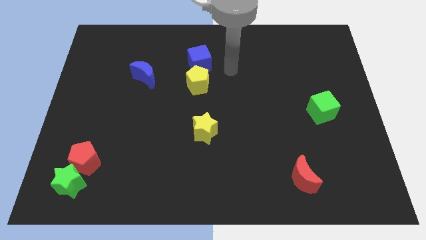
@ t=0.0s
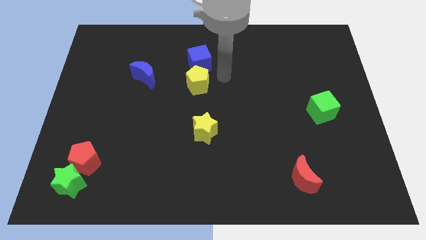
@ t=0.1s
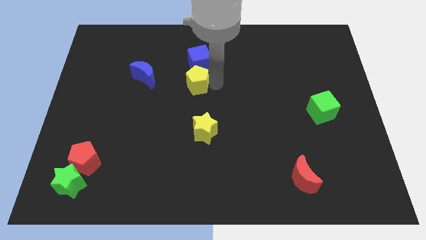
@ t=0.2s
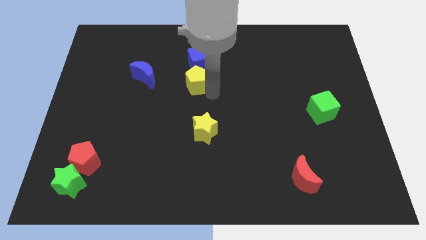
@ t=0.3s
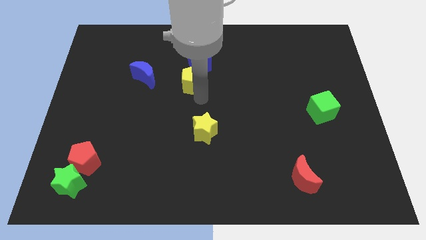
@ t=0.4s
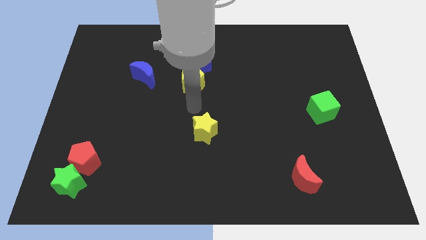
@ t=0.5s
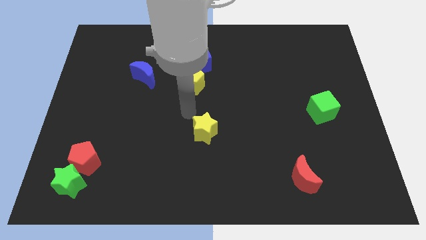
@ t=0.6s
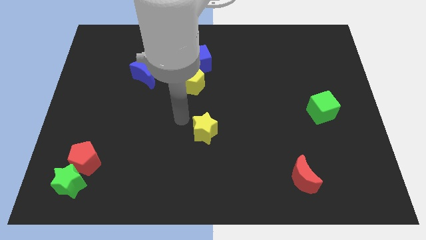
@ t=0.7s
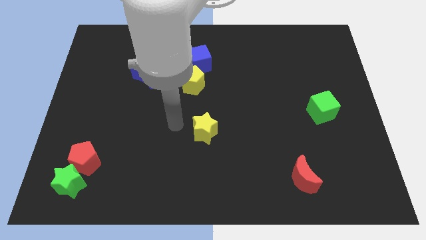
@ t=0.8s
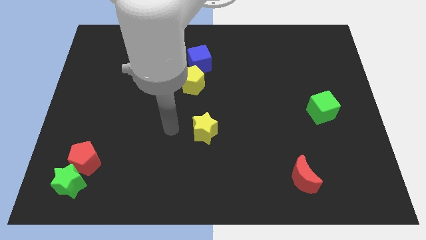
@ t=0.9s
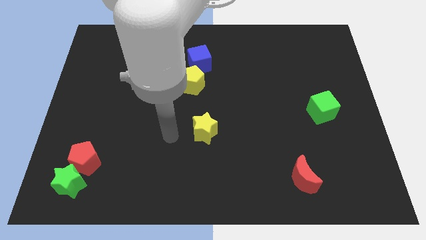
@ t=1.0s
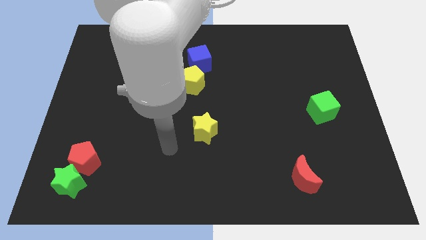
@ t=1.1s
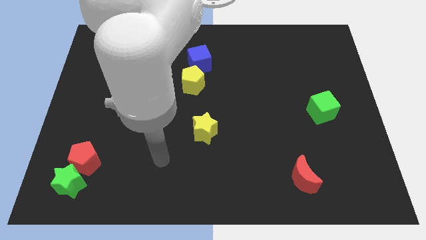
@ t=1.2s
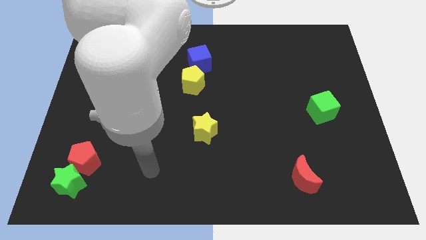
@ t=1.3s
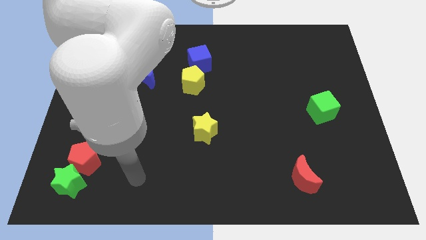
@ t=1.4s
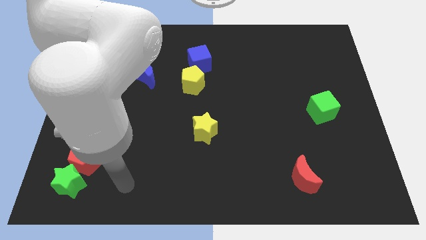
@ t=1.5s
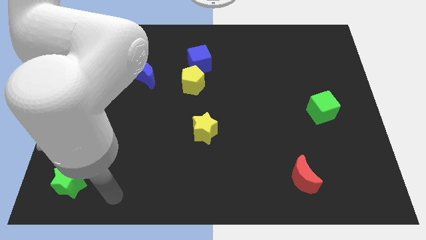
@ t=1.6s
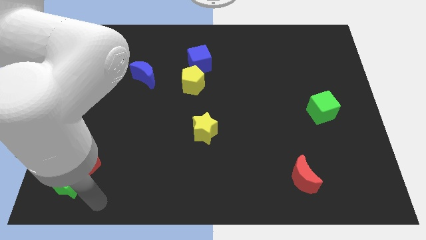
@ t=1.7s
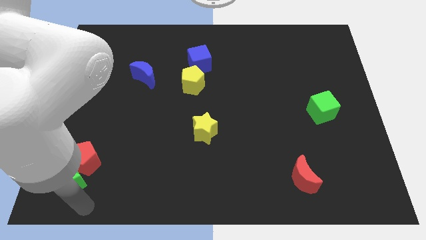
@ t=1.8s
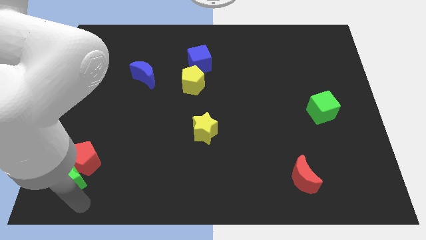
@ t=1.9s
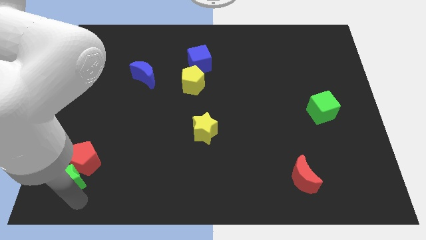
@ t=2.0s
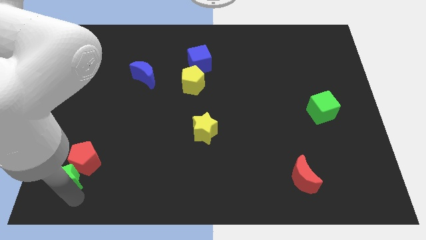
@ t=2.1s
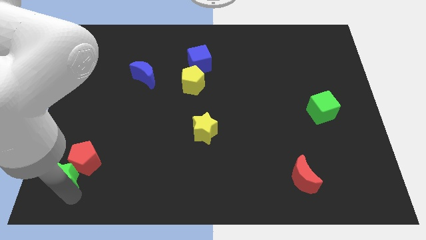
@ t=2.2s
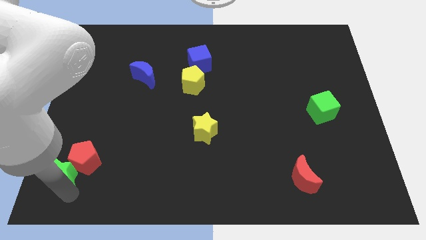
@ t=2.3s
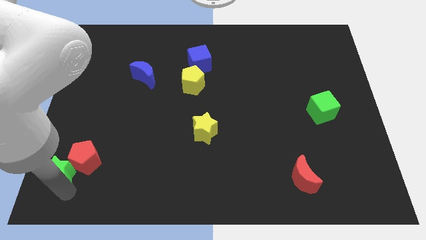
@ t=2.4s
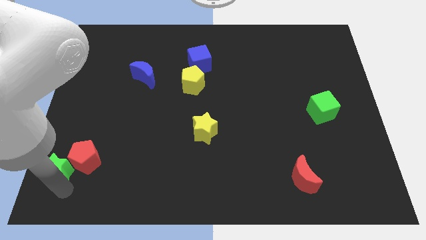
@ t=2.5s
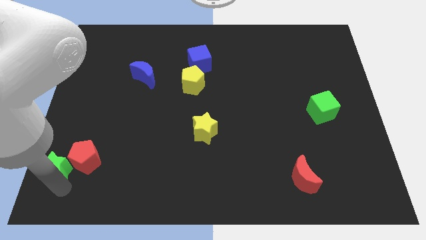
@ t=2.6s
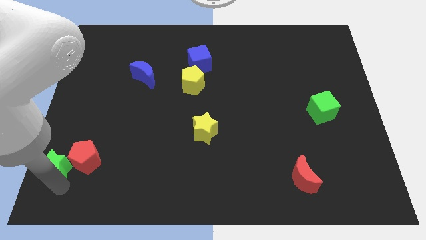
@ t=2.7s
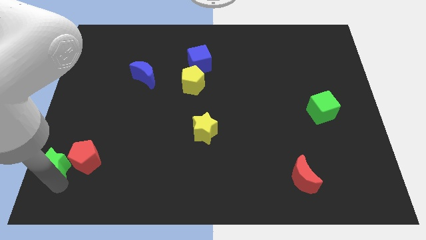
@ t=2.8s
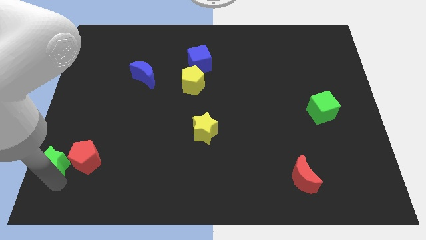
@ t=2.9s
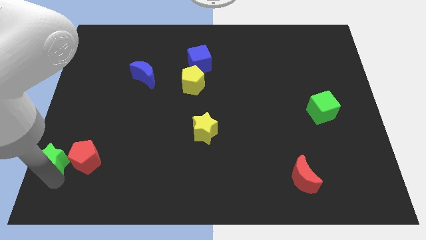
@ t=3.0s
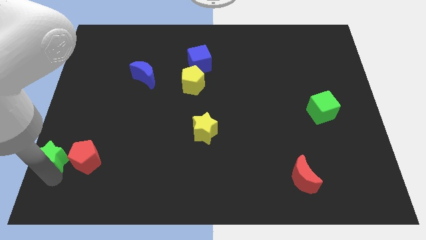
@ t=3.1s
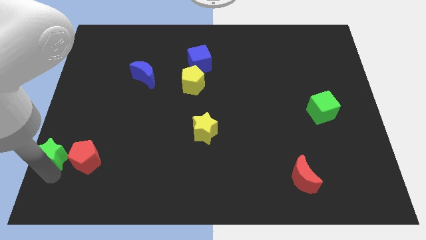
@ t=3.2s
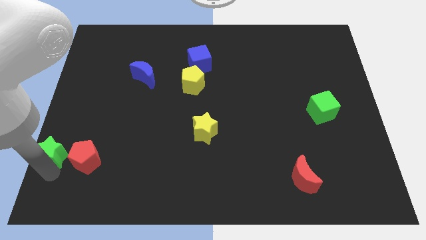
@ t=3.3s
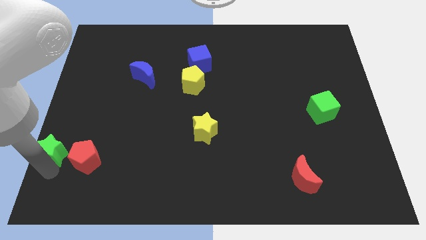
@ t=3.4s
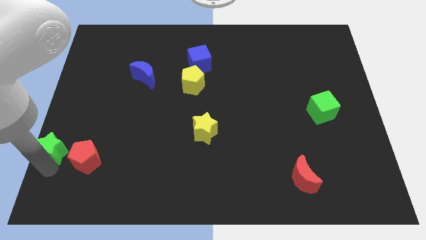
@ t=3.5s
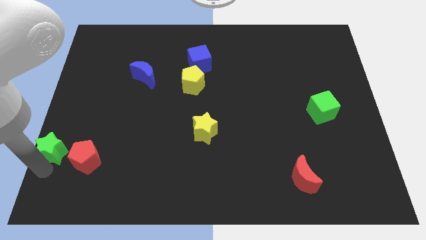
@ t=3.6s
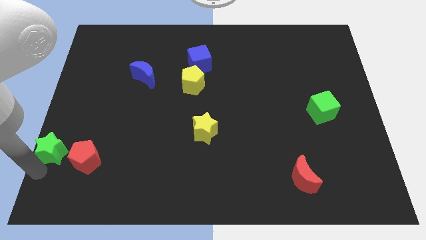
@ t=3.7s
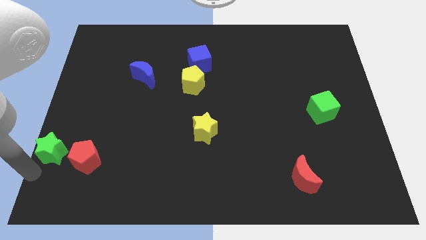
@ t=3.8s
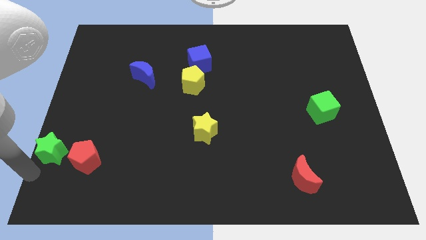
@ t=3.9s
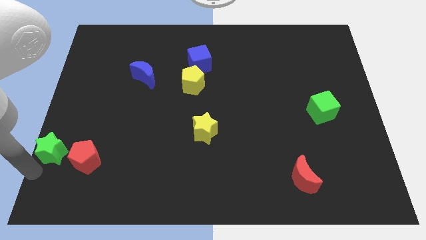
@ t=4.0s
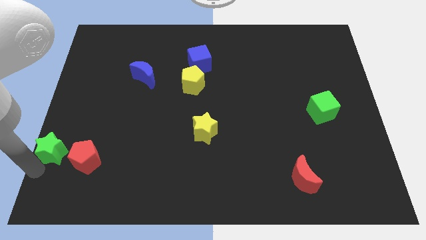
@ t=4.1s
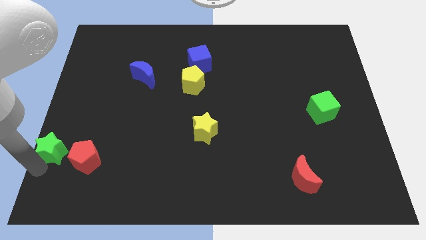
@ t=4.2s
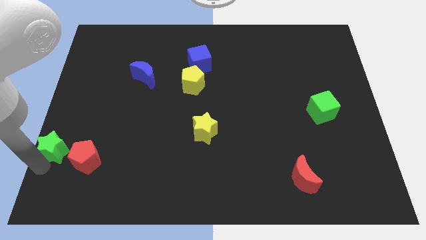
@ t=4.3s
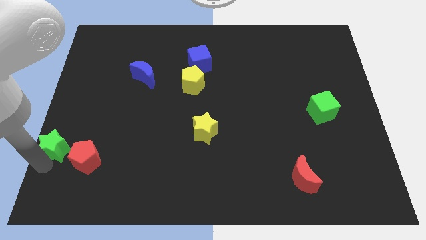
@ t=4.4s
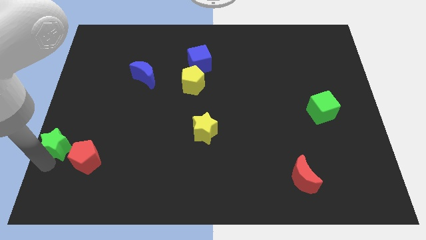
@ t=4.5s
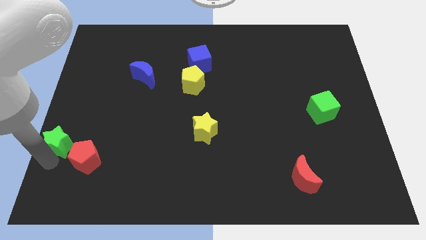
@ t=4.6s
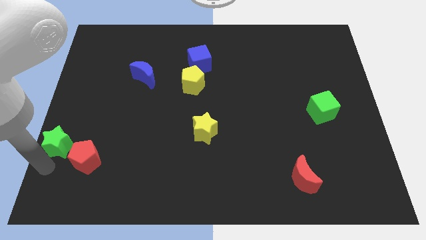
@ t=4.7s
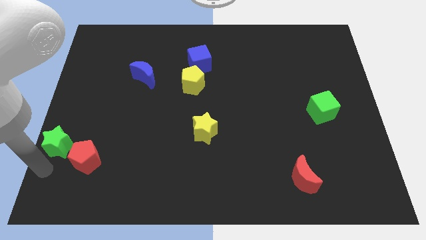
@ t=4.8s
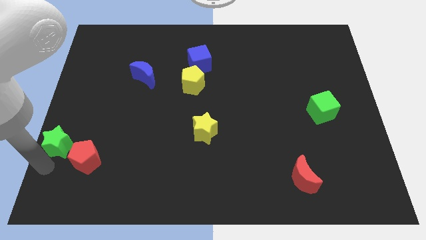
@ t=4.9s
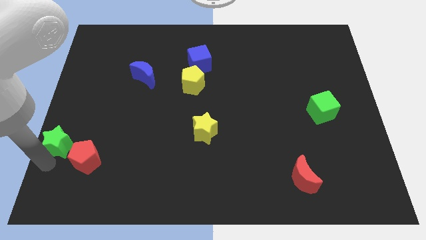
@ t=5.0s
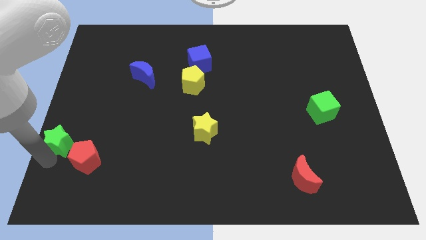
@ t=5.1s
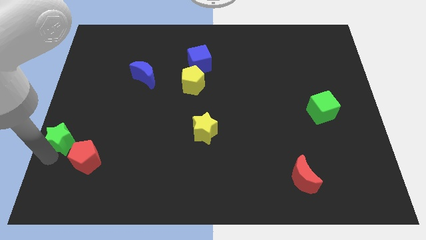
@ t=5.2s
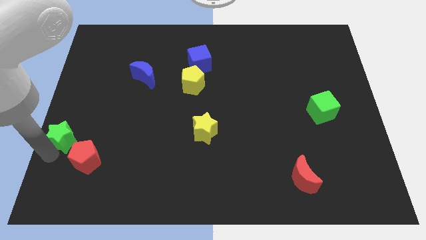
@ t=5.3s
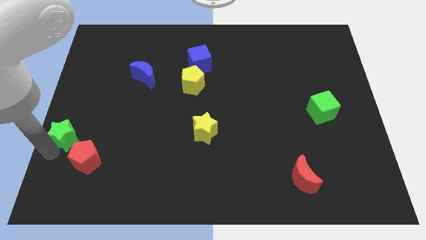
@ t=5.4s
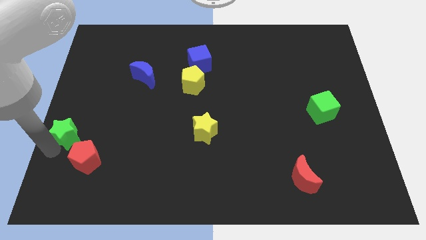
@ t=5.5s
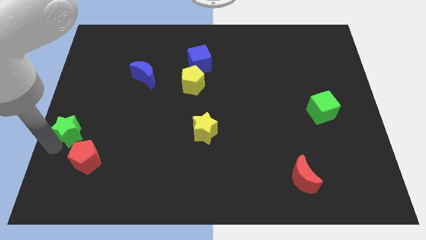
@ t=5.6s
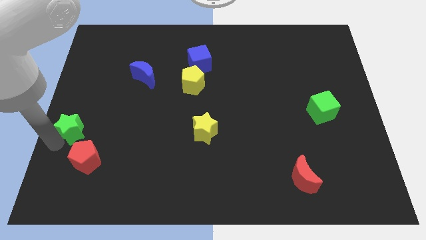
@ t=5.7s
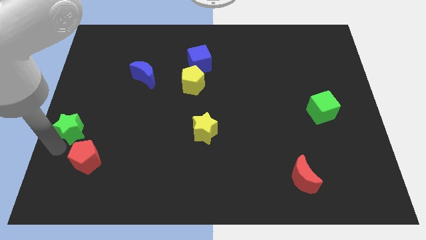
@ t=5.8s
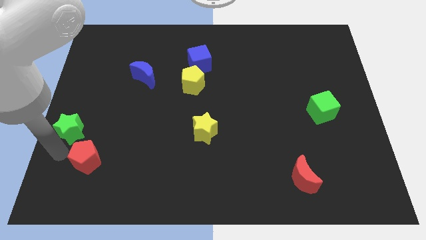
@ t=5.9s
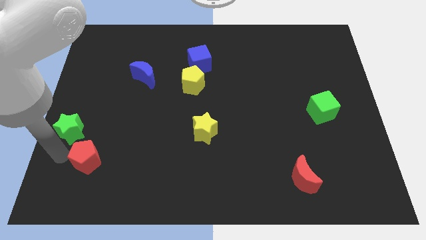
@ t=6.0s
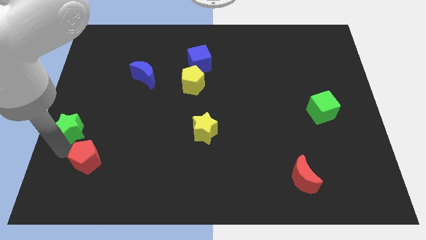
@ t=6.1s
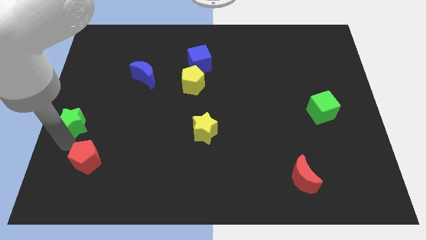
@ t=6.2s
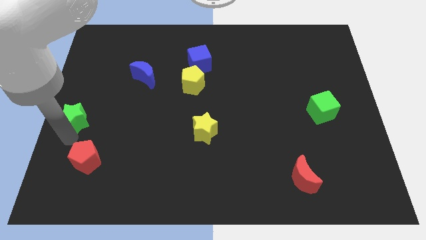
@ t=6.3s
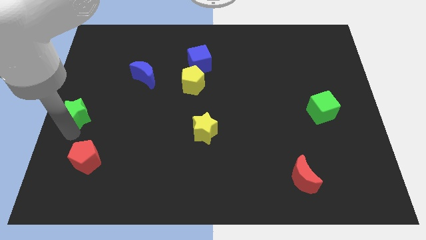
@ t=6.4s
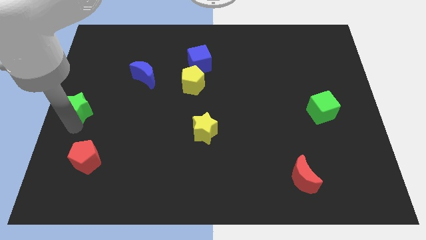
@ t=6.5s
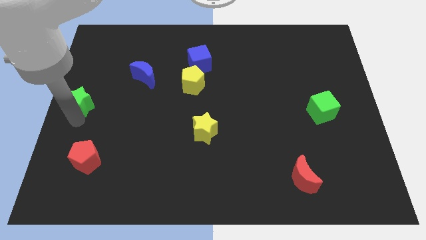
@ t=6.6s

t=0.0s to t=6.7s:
move the green star up

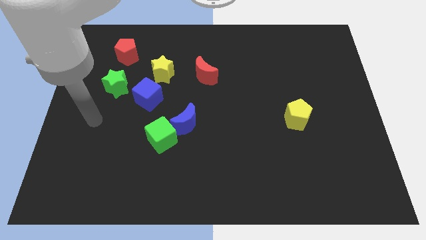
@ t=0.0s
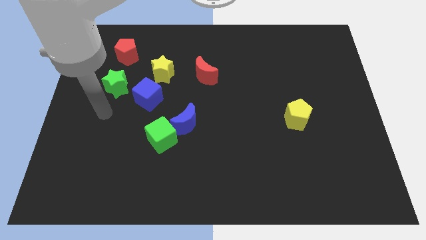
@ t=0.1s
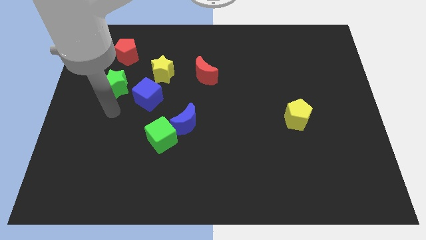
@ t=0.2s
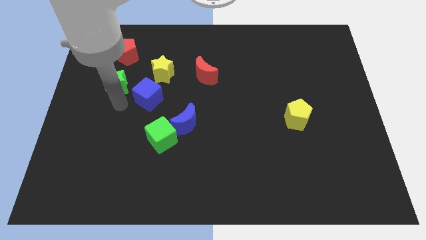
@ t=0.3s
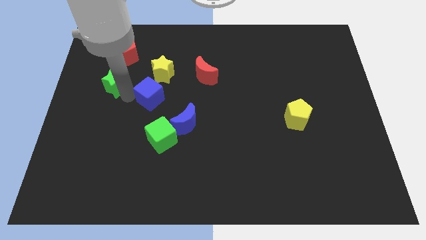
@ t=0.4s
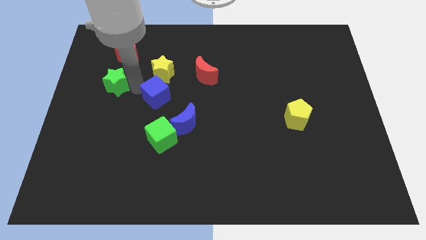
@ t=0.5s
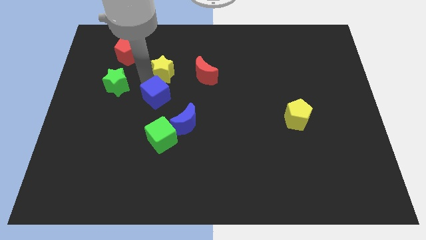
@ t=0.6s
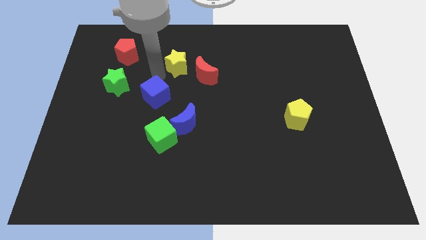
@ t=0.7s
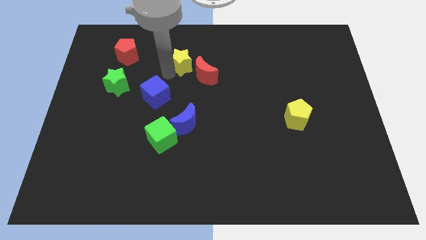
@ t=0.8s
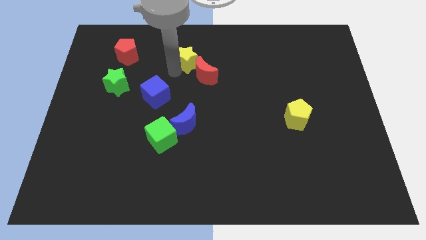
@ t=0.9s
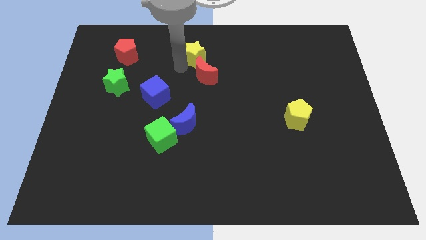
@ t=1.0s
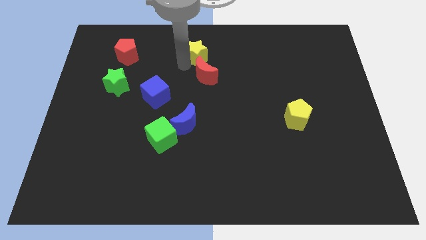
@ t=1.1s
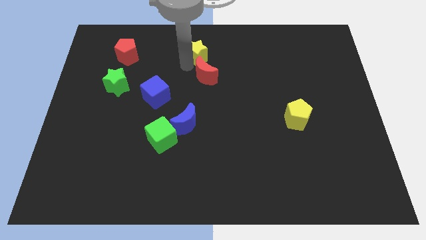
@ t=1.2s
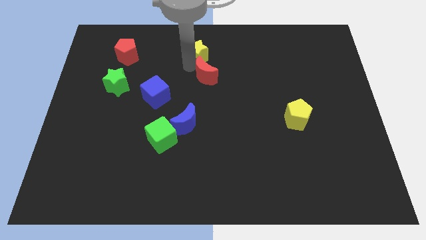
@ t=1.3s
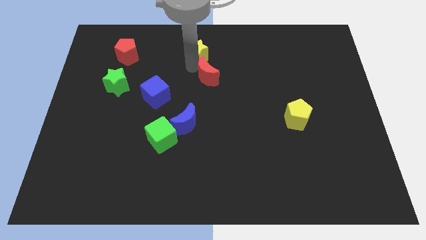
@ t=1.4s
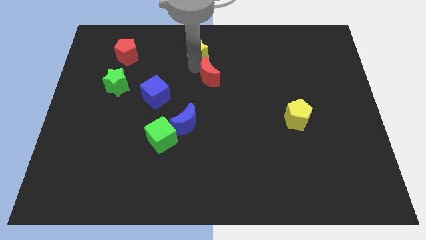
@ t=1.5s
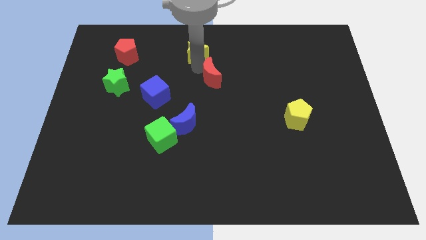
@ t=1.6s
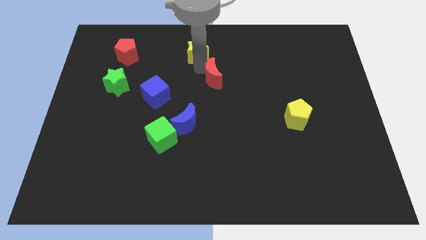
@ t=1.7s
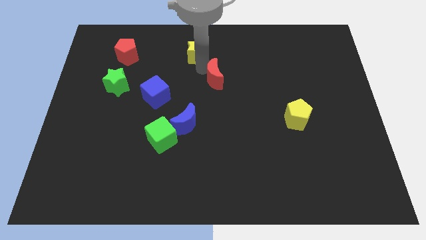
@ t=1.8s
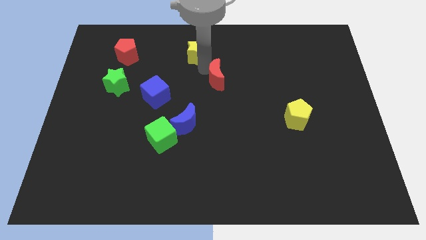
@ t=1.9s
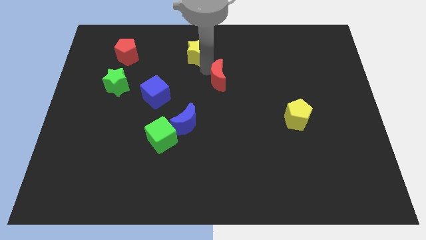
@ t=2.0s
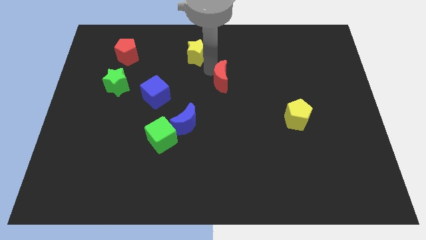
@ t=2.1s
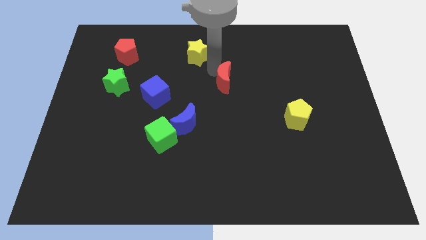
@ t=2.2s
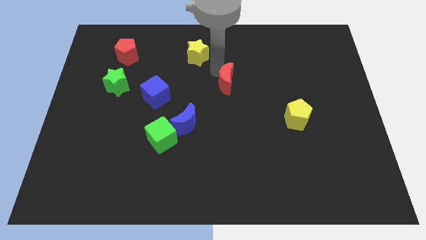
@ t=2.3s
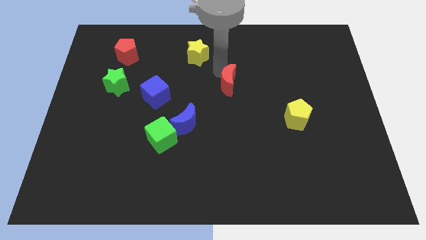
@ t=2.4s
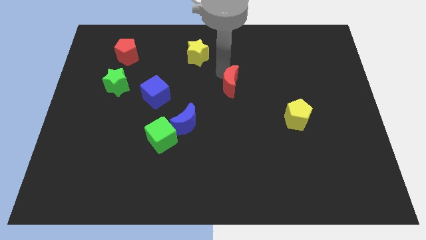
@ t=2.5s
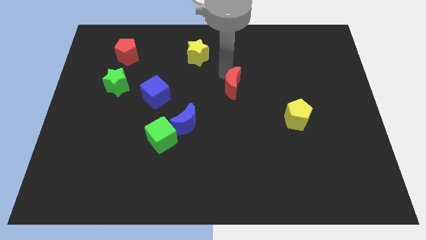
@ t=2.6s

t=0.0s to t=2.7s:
push the red moon down and to the right diagonally slightly
